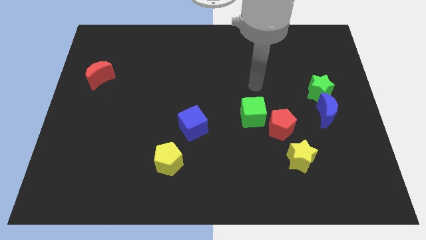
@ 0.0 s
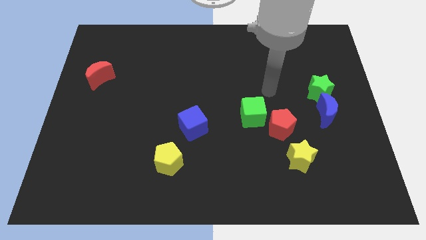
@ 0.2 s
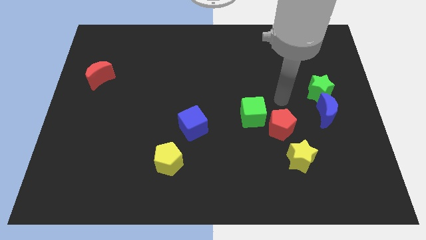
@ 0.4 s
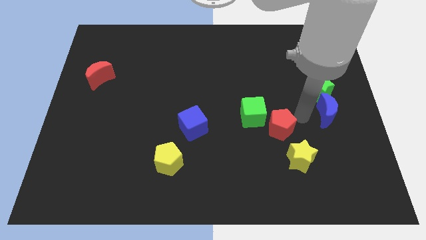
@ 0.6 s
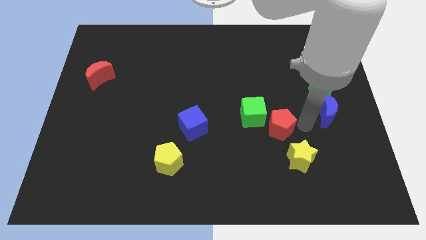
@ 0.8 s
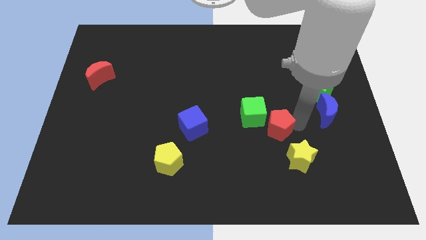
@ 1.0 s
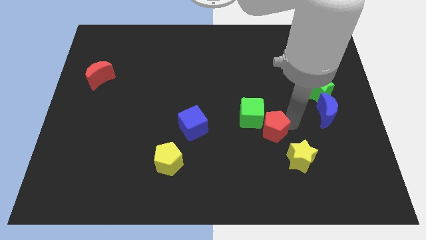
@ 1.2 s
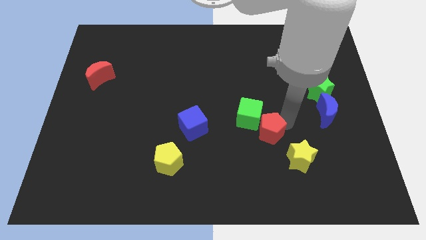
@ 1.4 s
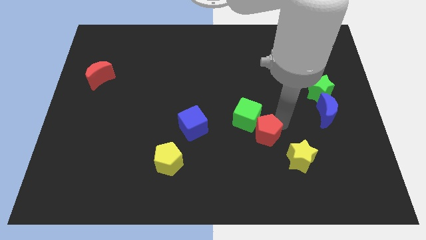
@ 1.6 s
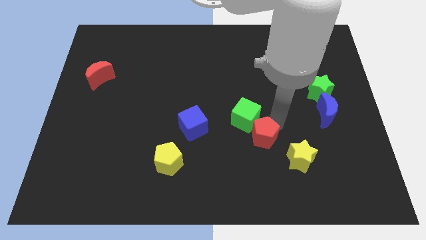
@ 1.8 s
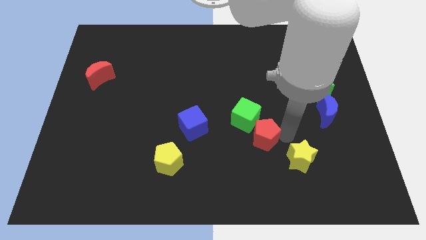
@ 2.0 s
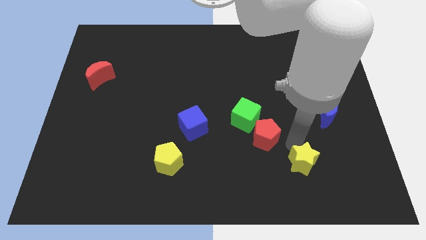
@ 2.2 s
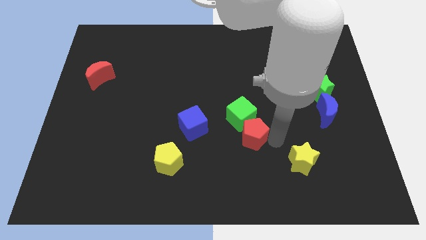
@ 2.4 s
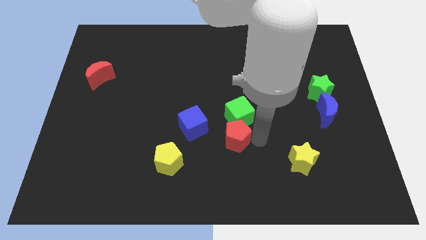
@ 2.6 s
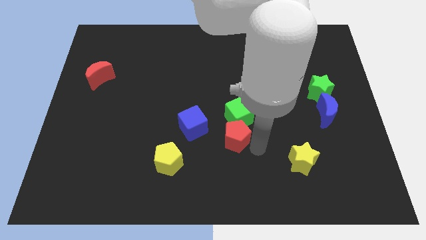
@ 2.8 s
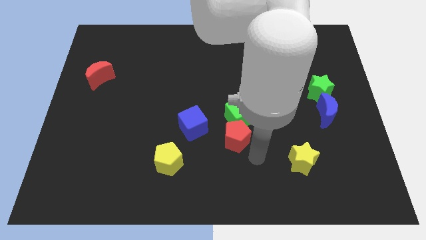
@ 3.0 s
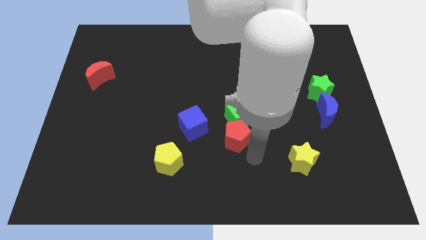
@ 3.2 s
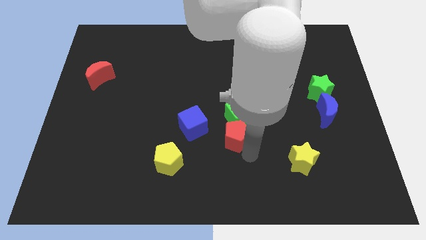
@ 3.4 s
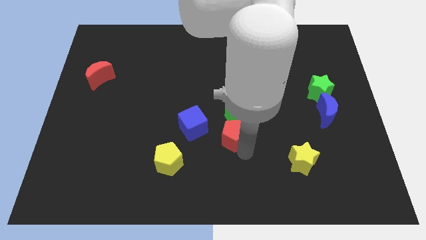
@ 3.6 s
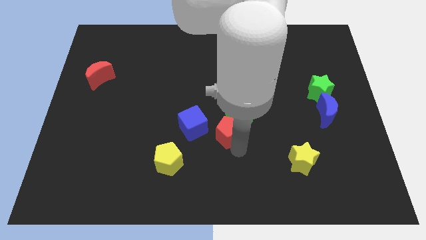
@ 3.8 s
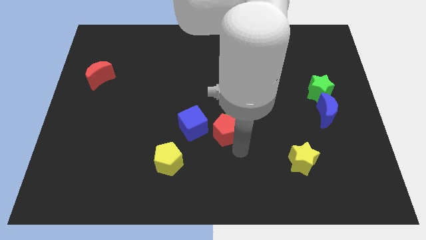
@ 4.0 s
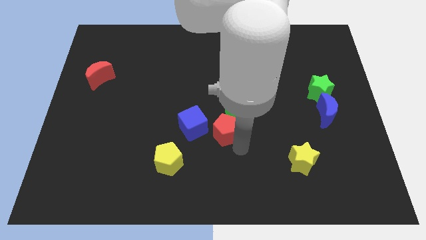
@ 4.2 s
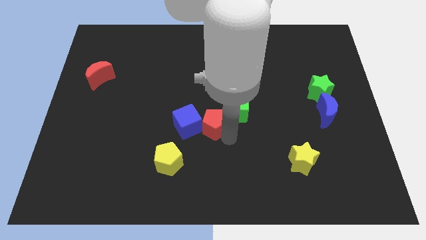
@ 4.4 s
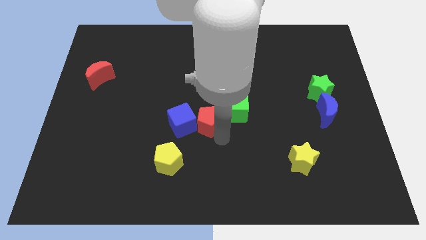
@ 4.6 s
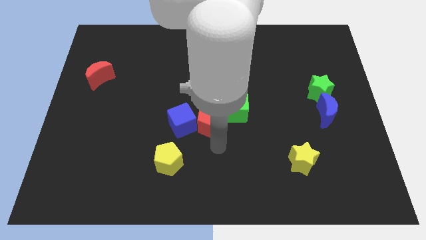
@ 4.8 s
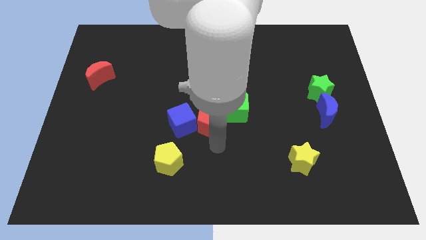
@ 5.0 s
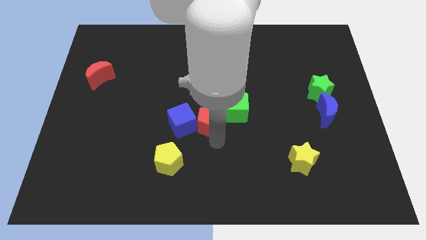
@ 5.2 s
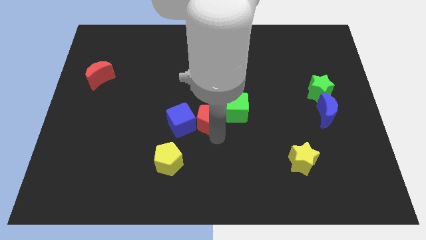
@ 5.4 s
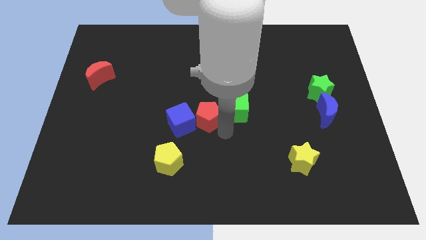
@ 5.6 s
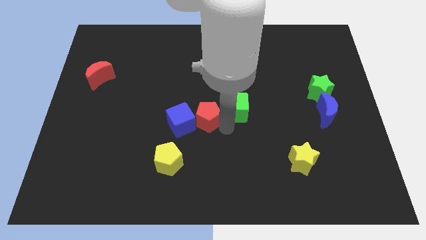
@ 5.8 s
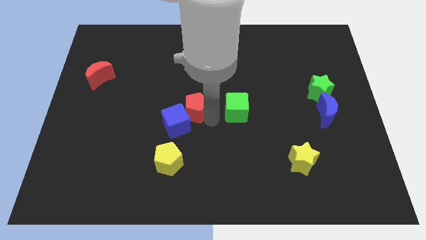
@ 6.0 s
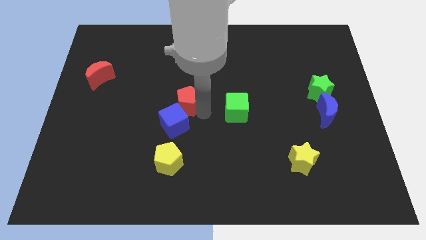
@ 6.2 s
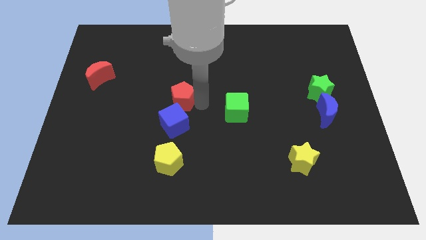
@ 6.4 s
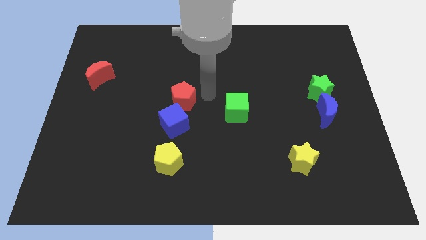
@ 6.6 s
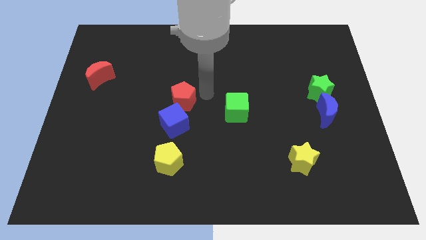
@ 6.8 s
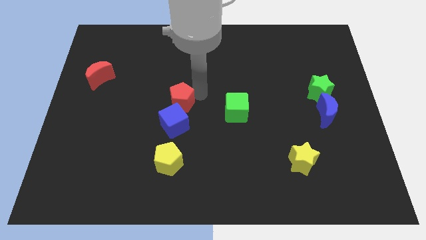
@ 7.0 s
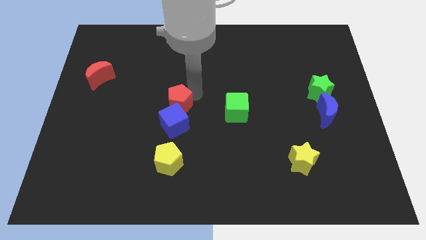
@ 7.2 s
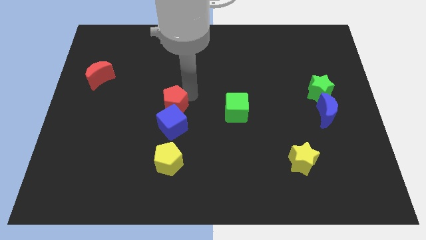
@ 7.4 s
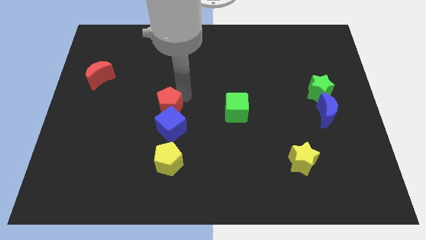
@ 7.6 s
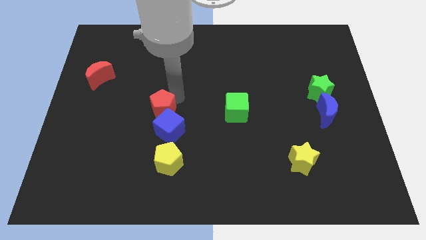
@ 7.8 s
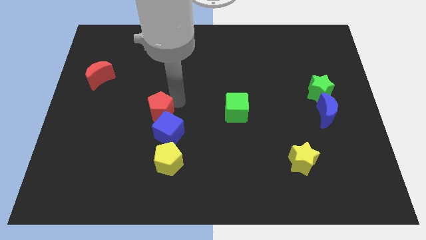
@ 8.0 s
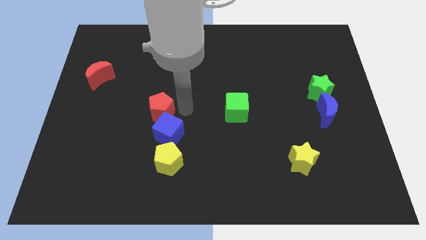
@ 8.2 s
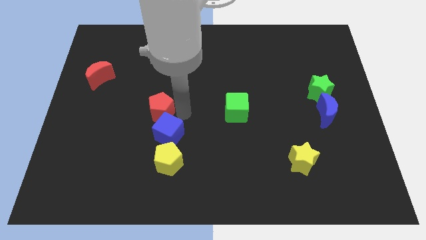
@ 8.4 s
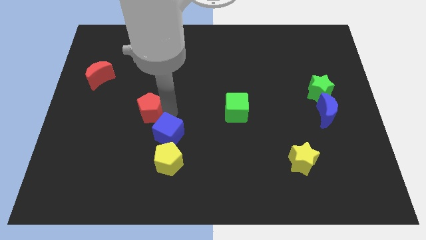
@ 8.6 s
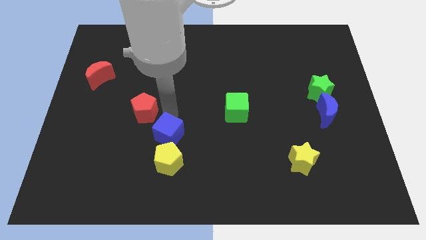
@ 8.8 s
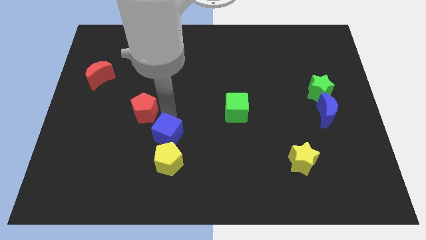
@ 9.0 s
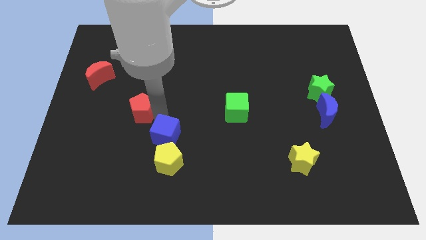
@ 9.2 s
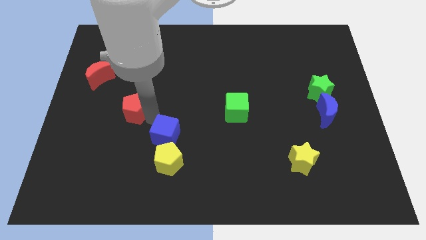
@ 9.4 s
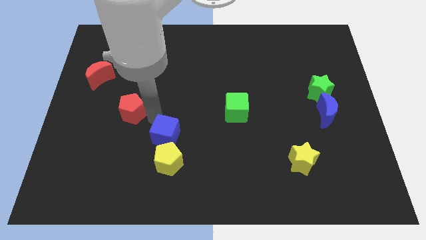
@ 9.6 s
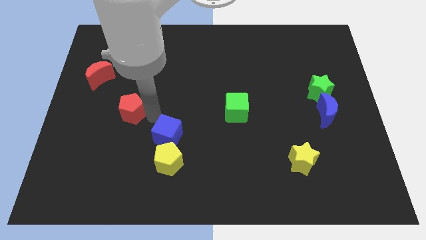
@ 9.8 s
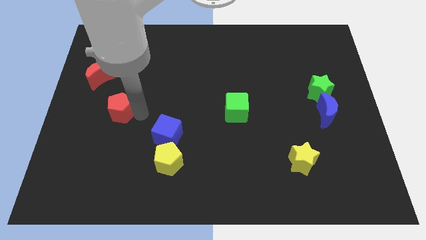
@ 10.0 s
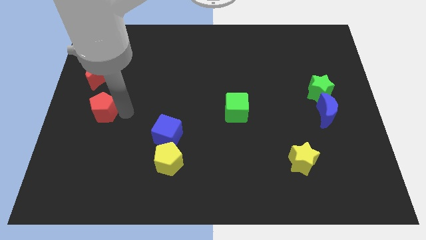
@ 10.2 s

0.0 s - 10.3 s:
push the red pentagon to the center left

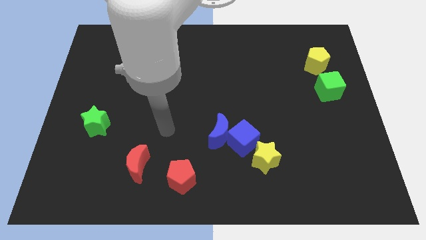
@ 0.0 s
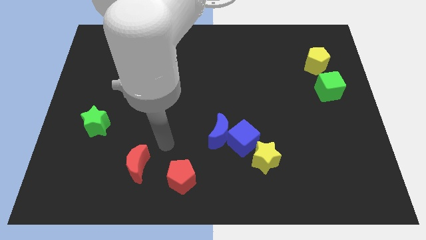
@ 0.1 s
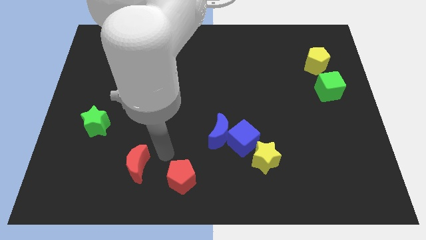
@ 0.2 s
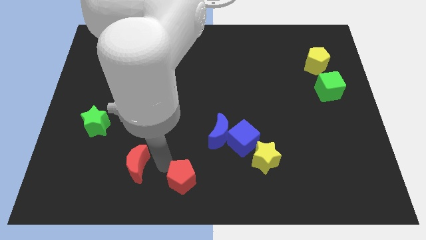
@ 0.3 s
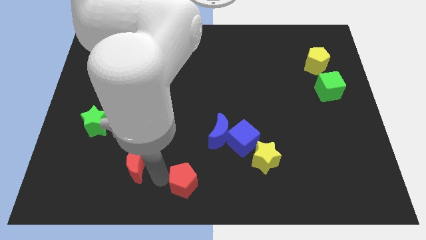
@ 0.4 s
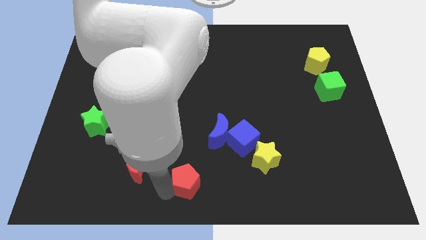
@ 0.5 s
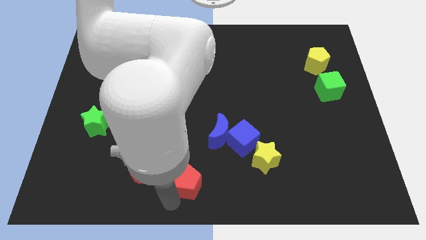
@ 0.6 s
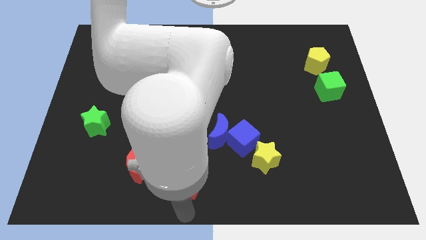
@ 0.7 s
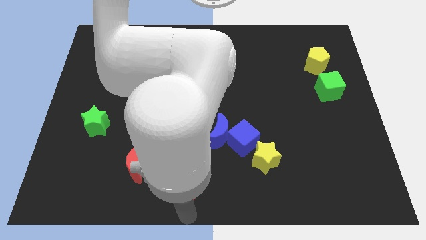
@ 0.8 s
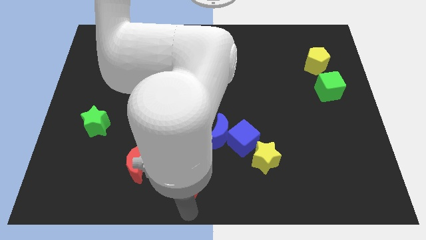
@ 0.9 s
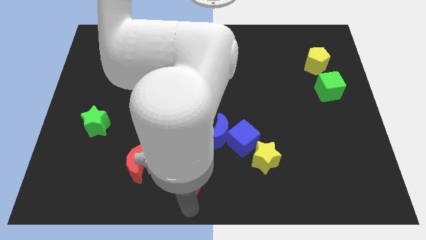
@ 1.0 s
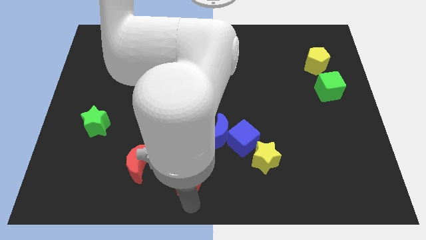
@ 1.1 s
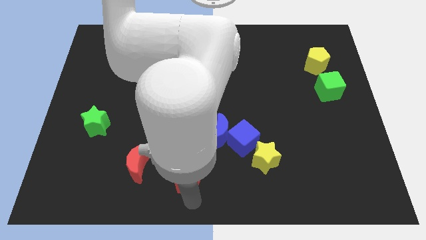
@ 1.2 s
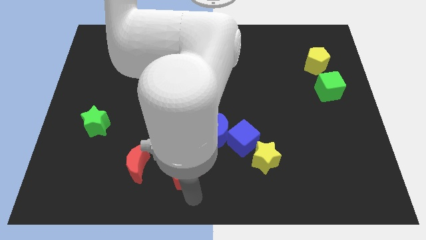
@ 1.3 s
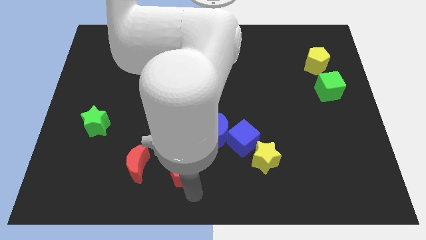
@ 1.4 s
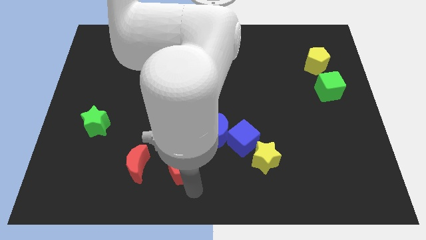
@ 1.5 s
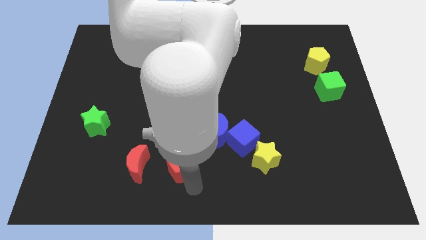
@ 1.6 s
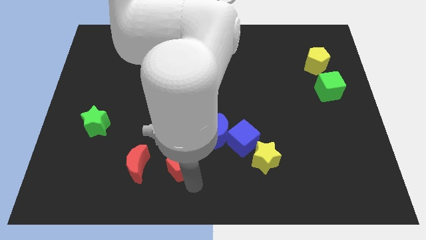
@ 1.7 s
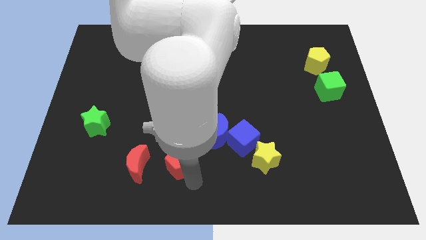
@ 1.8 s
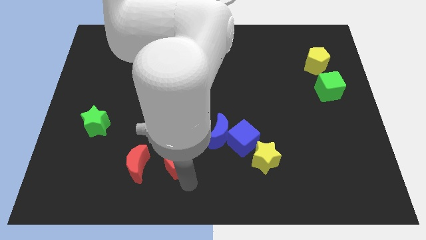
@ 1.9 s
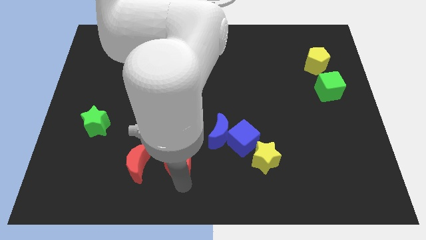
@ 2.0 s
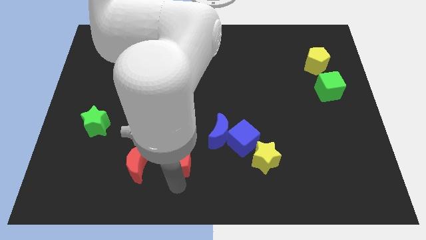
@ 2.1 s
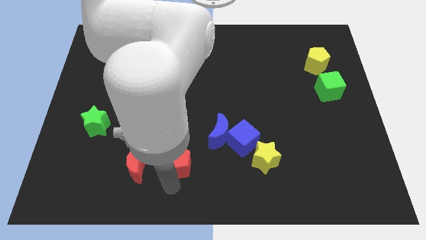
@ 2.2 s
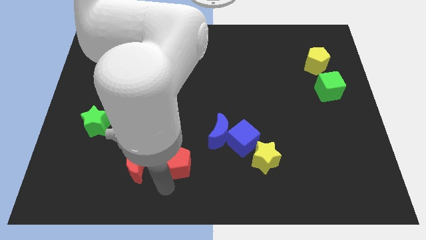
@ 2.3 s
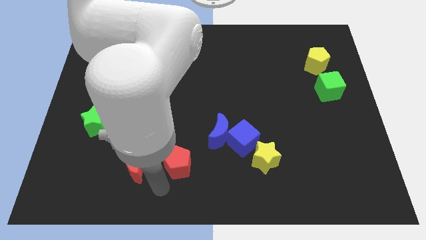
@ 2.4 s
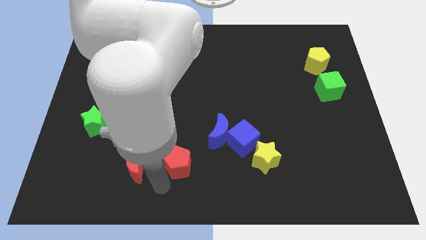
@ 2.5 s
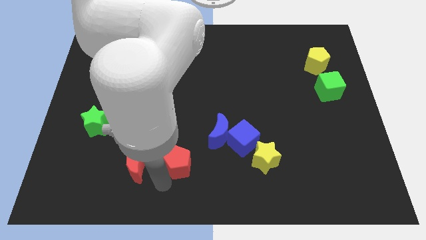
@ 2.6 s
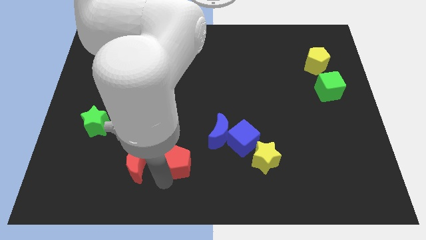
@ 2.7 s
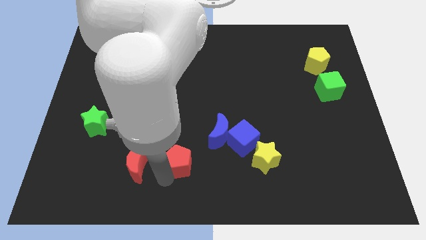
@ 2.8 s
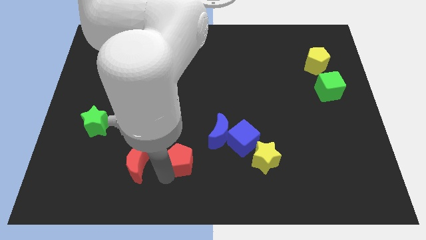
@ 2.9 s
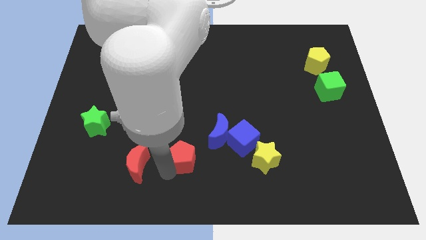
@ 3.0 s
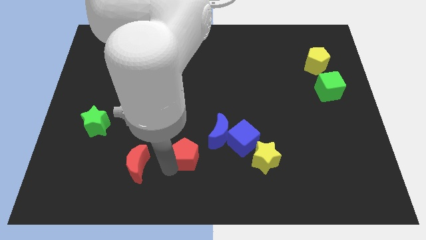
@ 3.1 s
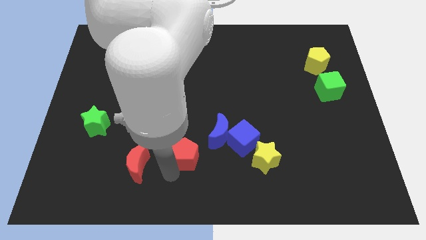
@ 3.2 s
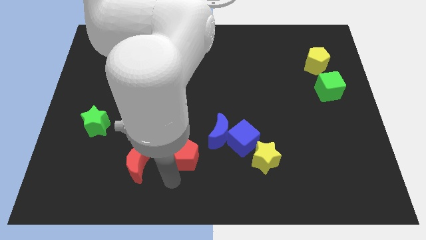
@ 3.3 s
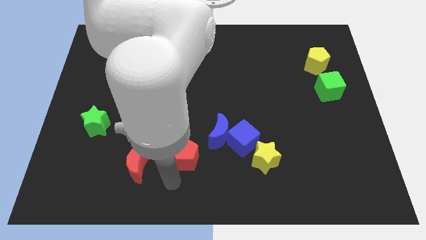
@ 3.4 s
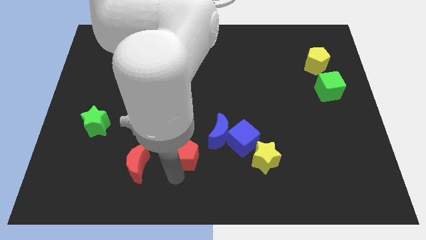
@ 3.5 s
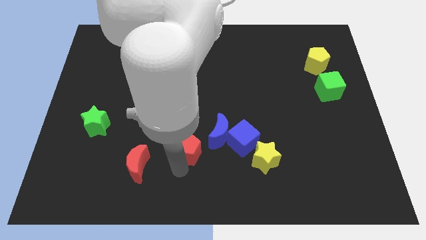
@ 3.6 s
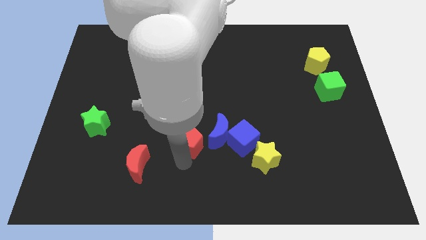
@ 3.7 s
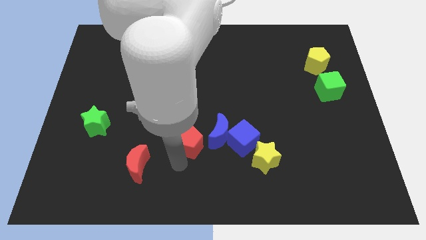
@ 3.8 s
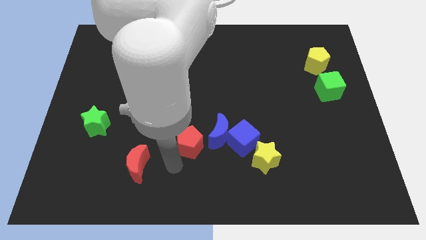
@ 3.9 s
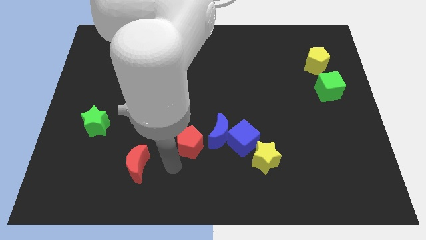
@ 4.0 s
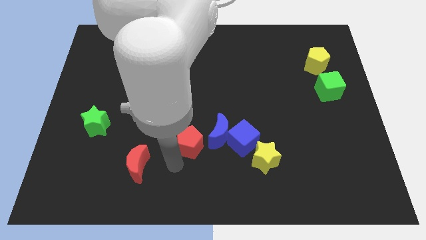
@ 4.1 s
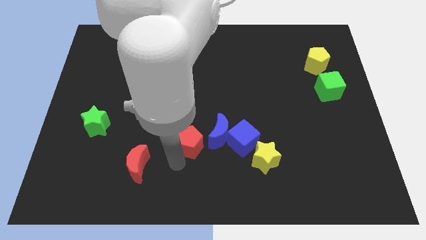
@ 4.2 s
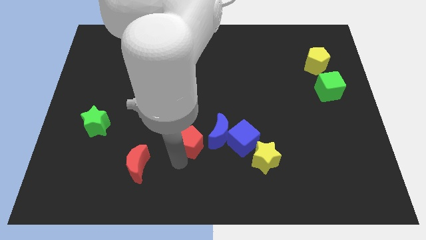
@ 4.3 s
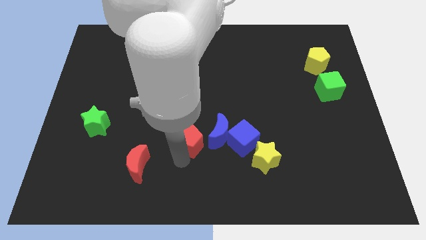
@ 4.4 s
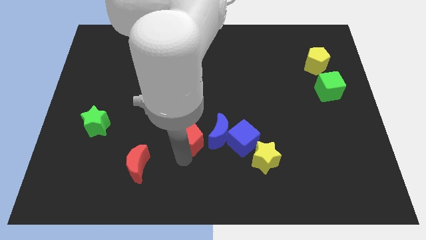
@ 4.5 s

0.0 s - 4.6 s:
put the red pentagon to the middle of the board
